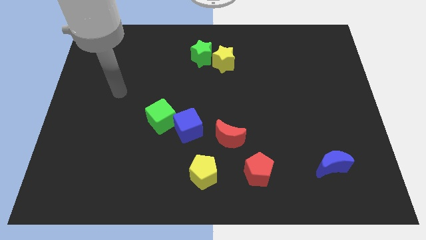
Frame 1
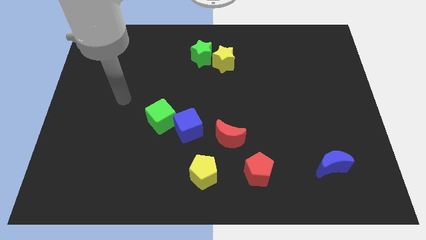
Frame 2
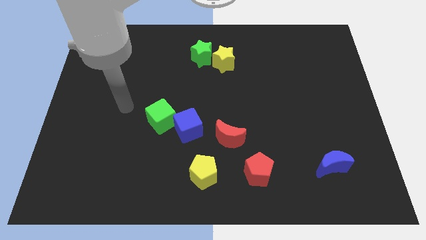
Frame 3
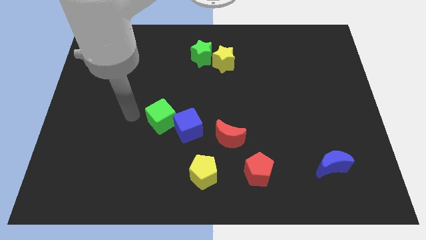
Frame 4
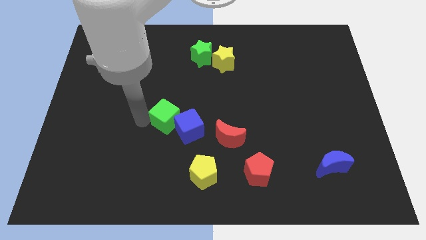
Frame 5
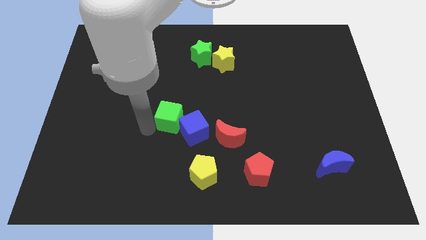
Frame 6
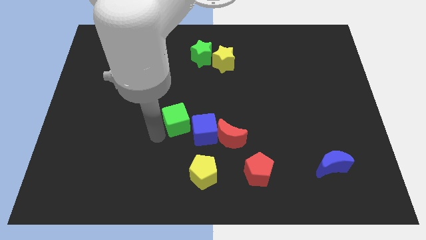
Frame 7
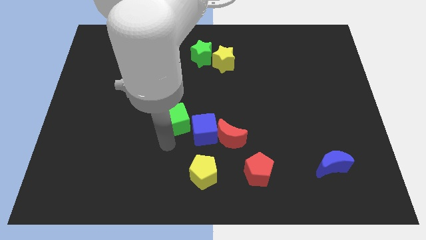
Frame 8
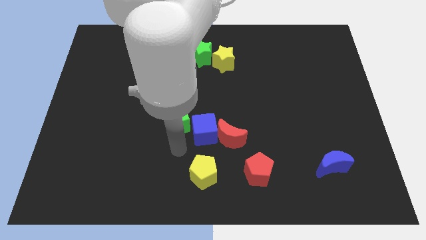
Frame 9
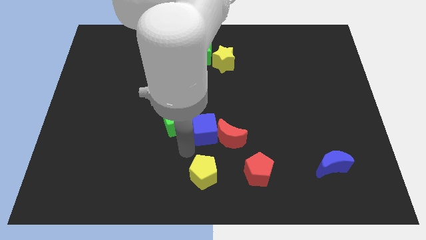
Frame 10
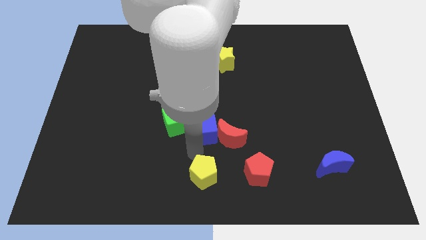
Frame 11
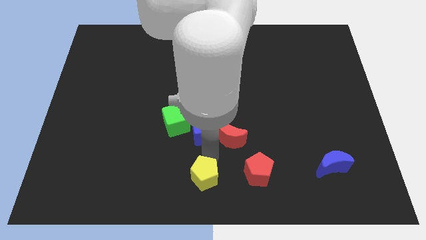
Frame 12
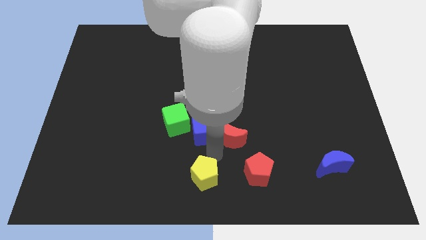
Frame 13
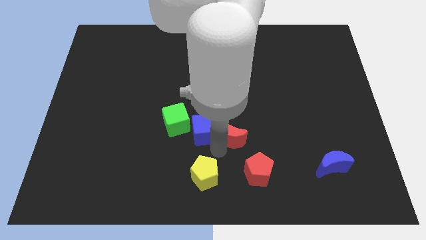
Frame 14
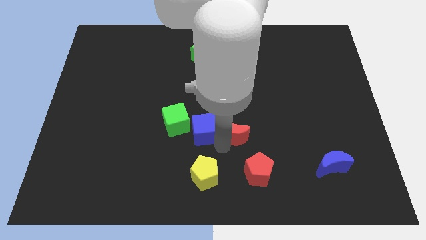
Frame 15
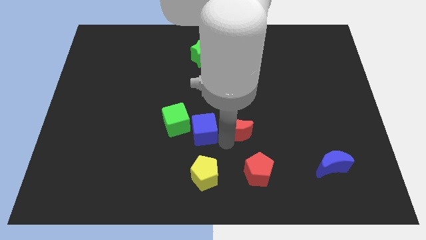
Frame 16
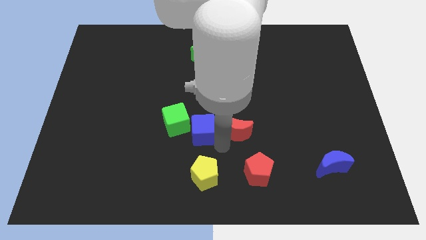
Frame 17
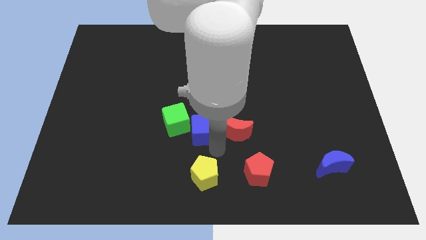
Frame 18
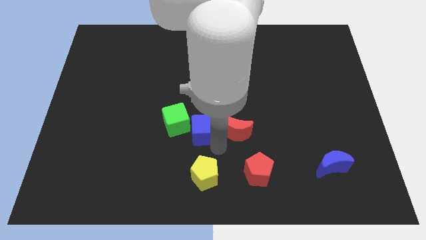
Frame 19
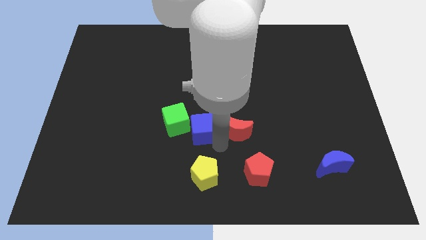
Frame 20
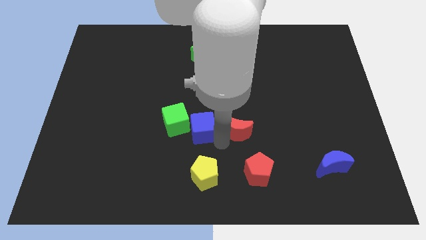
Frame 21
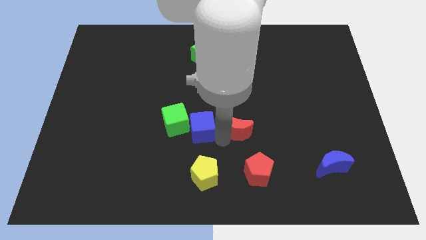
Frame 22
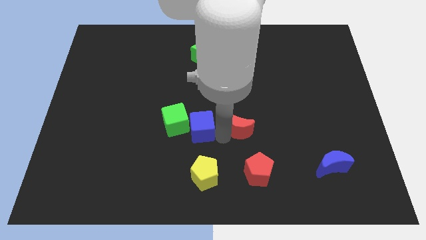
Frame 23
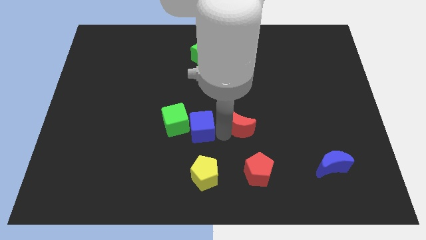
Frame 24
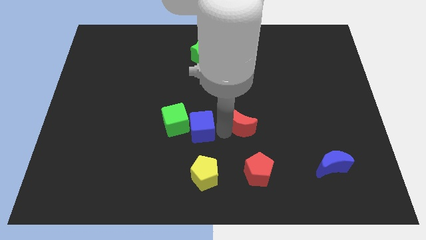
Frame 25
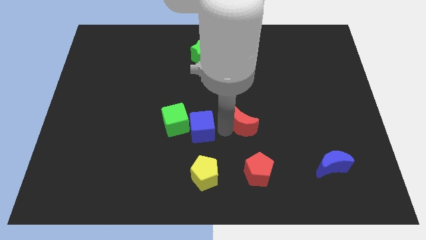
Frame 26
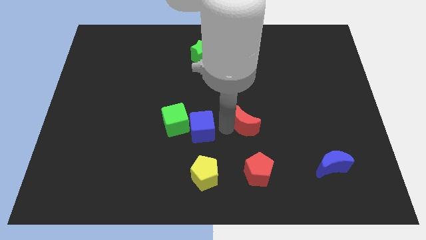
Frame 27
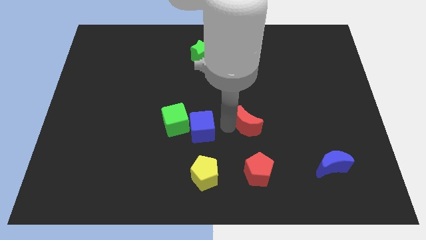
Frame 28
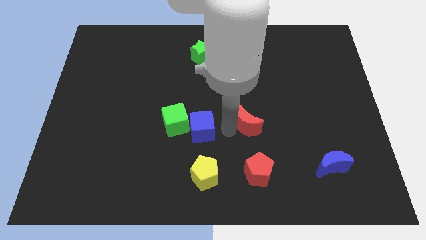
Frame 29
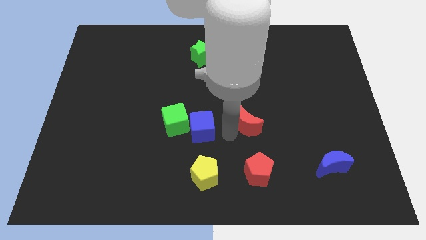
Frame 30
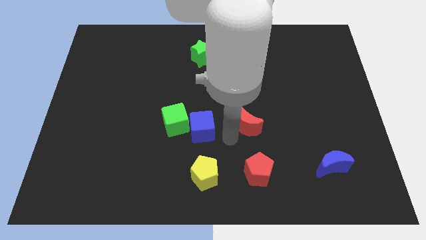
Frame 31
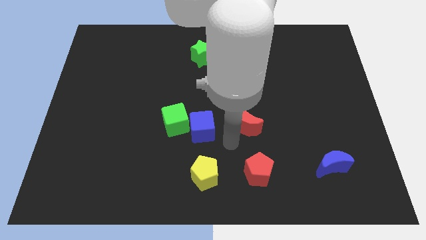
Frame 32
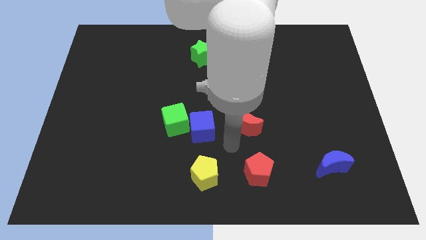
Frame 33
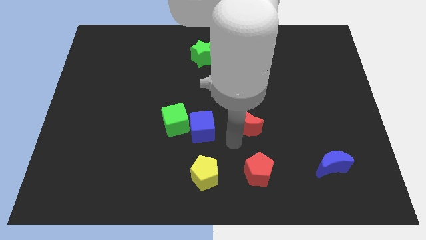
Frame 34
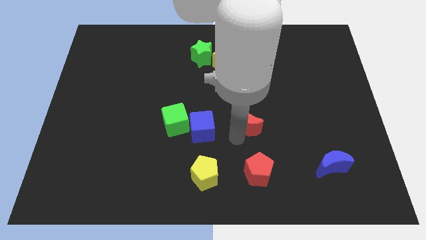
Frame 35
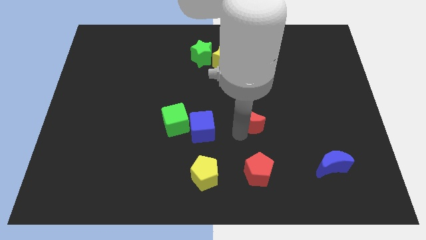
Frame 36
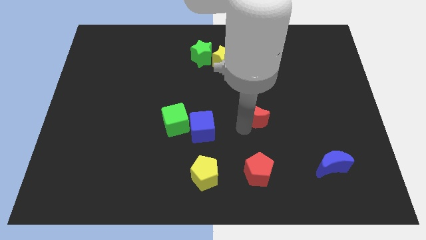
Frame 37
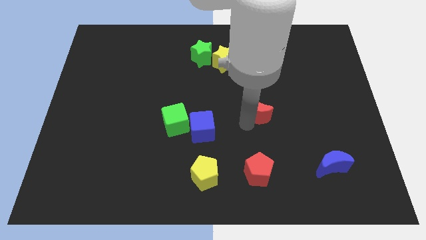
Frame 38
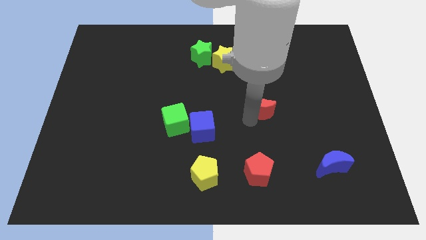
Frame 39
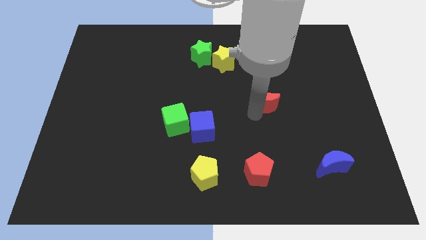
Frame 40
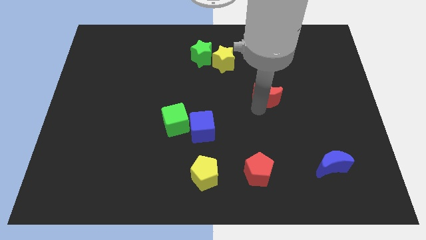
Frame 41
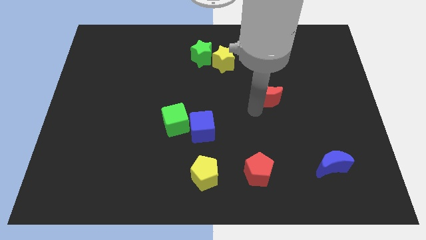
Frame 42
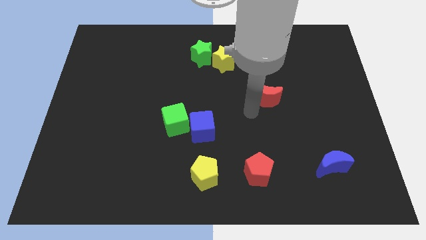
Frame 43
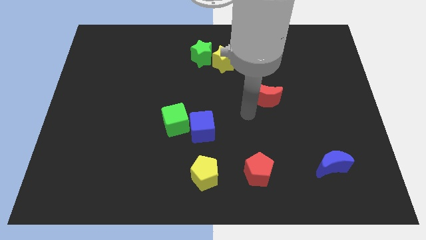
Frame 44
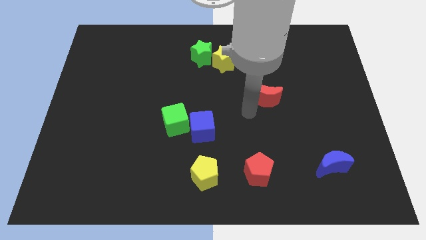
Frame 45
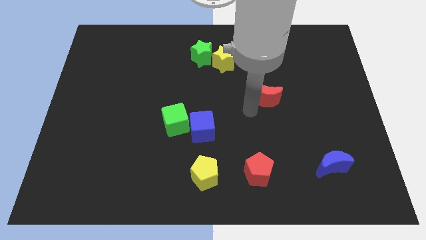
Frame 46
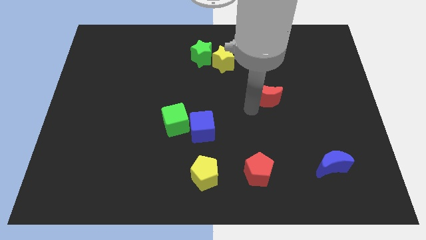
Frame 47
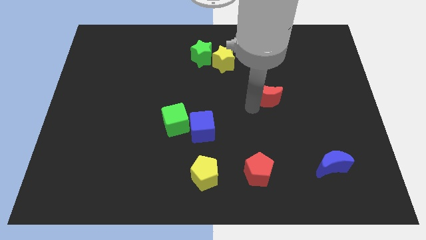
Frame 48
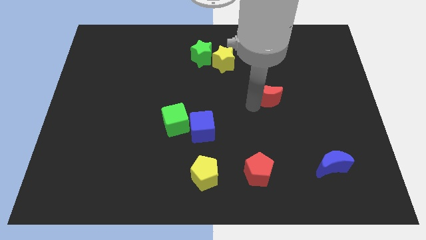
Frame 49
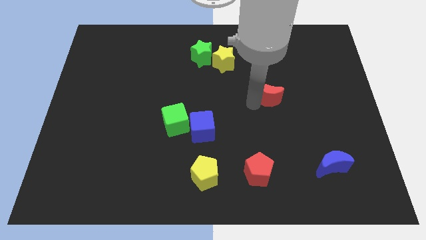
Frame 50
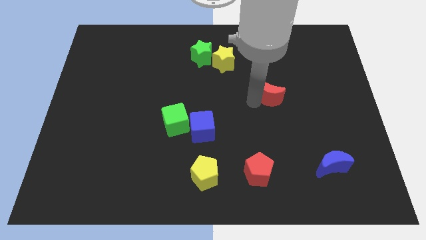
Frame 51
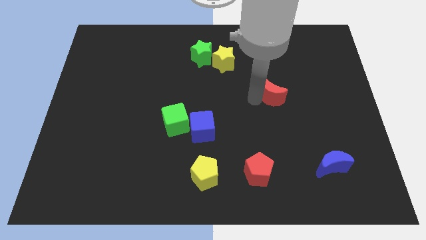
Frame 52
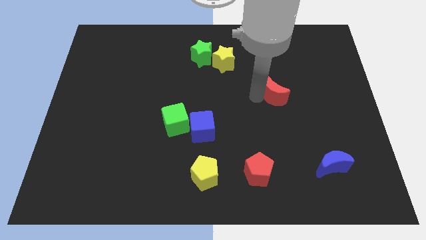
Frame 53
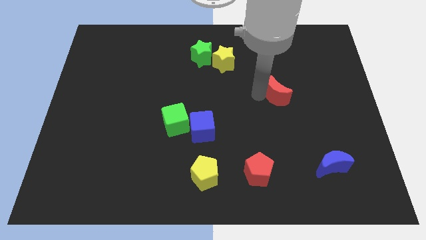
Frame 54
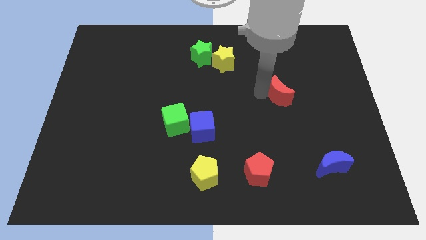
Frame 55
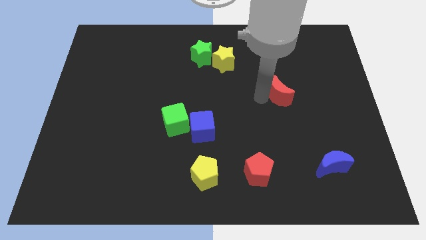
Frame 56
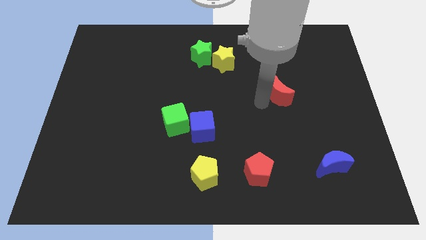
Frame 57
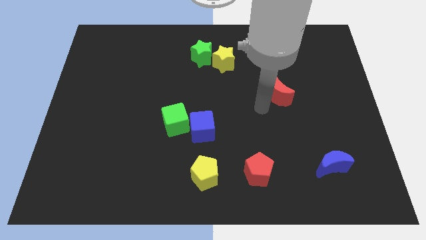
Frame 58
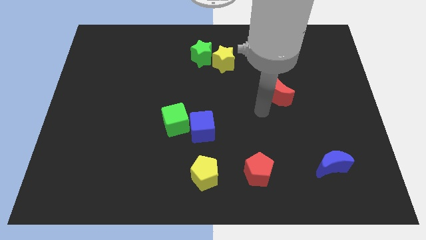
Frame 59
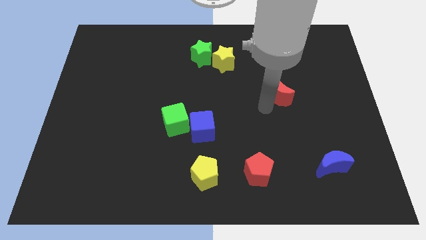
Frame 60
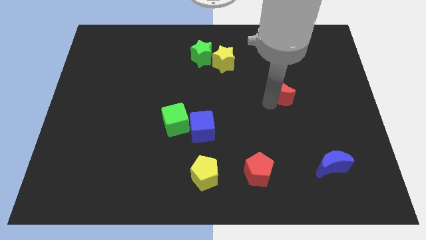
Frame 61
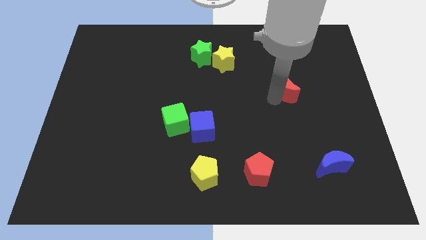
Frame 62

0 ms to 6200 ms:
slide the red moon diagonally upwards and to the right

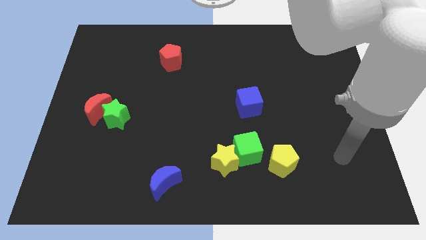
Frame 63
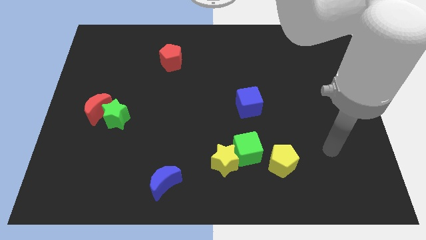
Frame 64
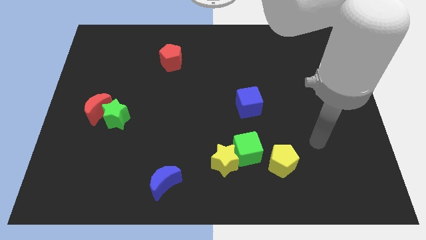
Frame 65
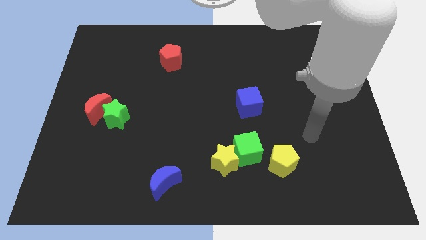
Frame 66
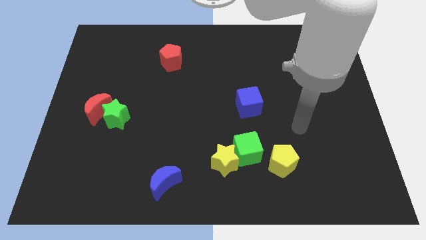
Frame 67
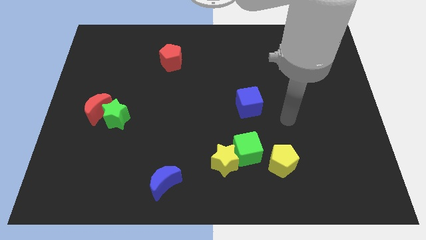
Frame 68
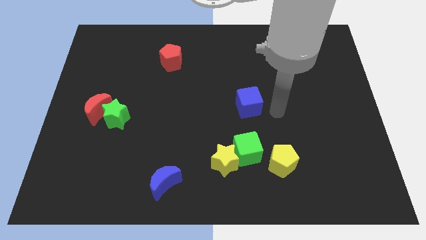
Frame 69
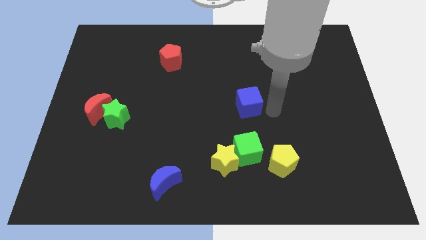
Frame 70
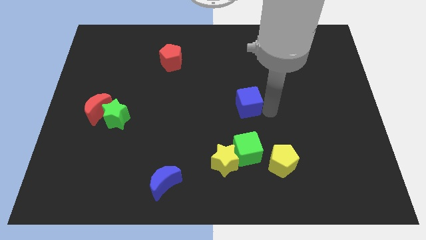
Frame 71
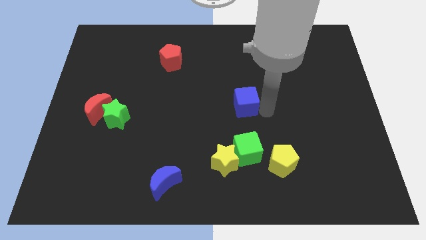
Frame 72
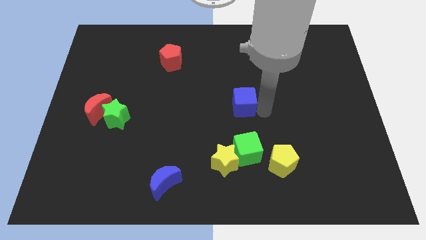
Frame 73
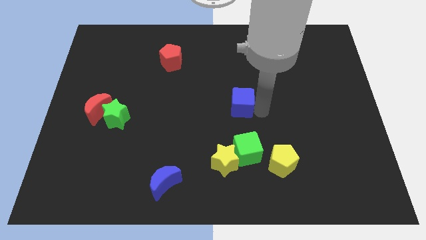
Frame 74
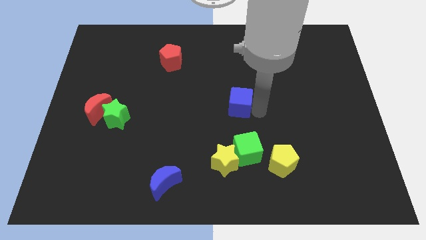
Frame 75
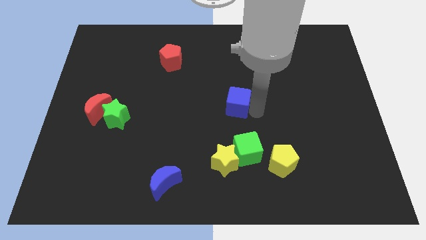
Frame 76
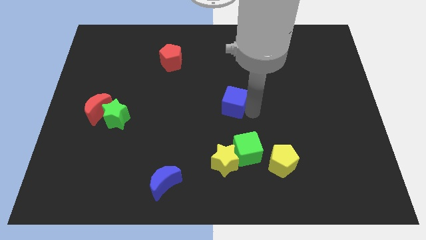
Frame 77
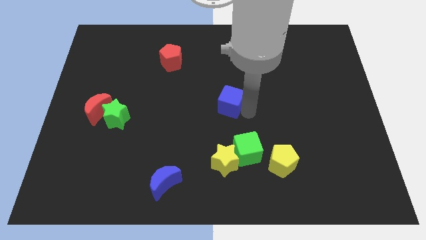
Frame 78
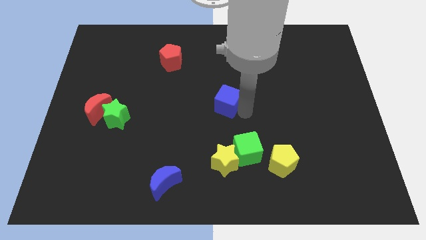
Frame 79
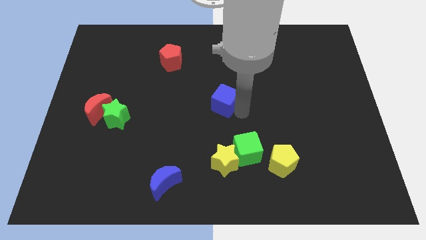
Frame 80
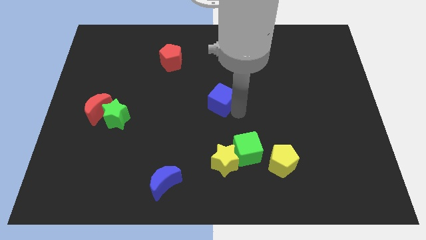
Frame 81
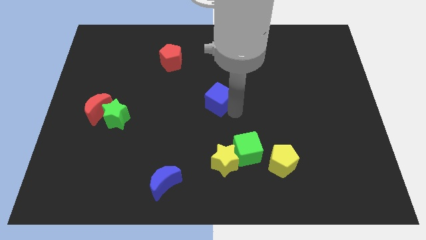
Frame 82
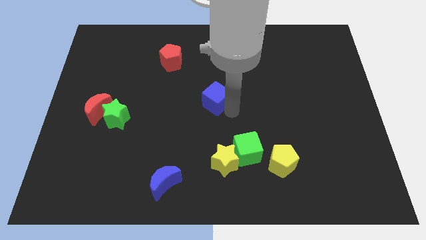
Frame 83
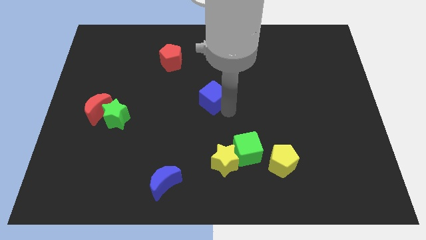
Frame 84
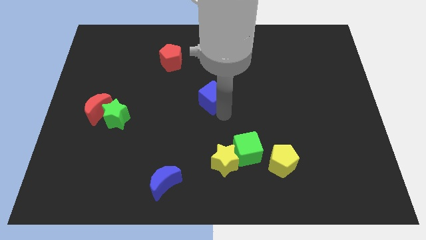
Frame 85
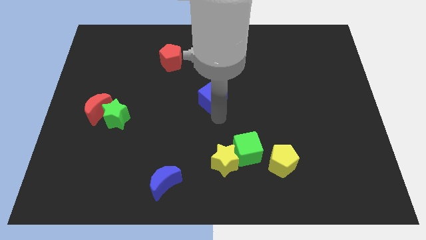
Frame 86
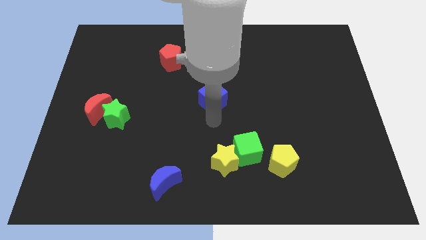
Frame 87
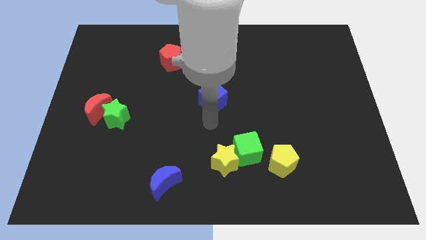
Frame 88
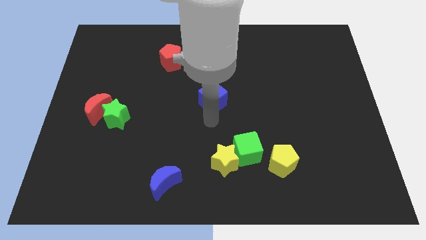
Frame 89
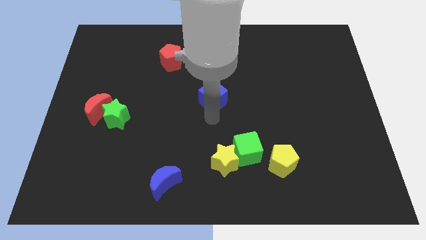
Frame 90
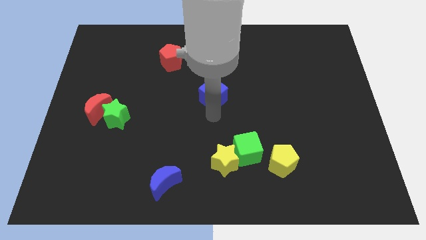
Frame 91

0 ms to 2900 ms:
slightly push the blue cube upwards and then left
